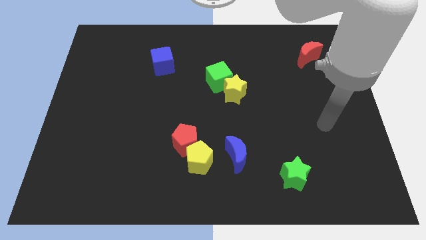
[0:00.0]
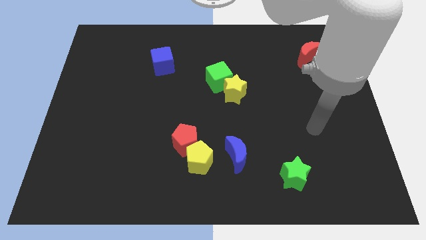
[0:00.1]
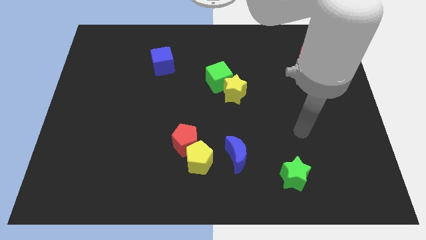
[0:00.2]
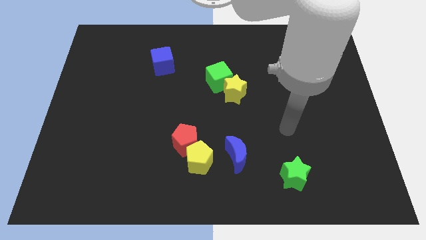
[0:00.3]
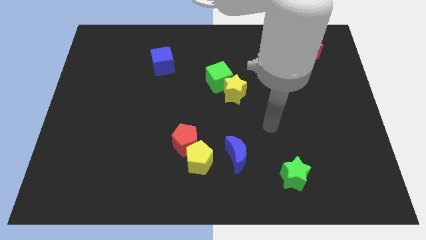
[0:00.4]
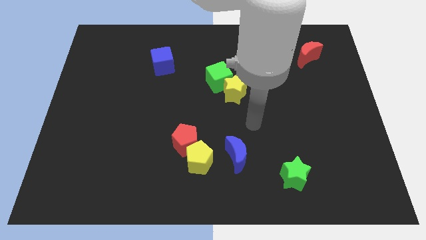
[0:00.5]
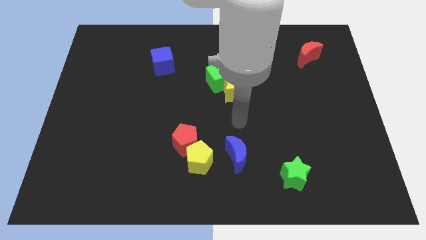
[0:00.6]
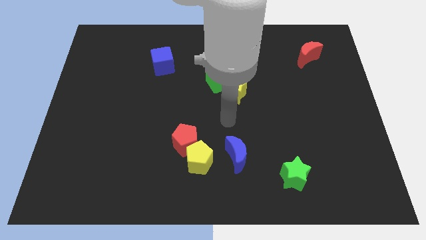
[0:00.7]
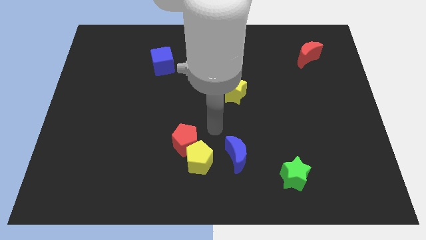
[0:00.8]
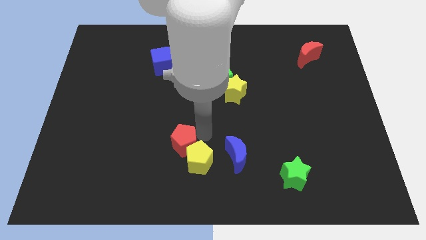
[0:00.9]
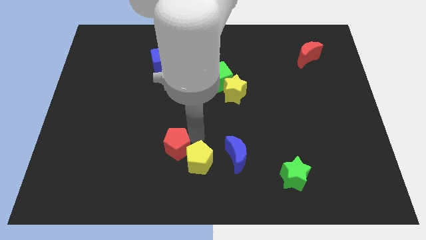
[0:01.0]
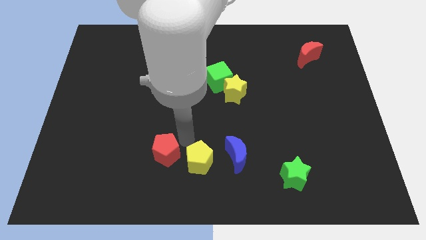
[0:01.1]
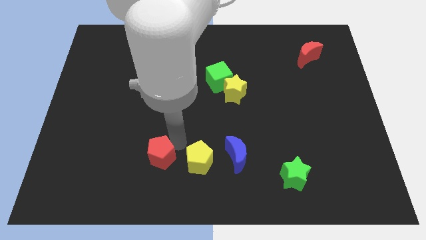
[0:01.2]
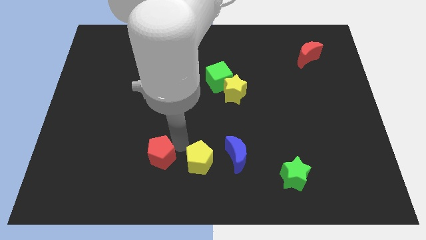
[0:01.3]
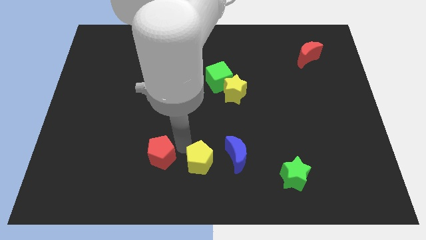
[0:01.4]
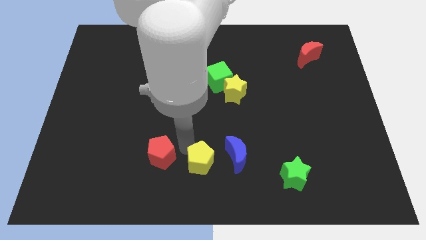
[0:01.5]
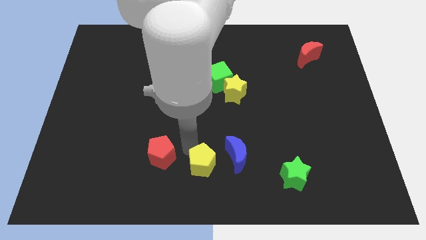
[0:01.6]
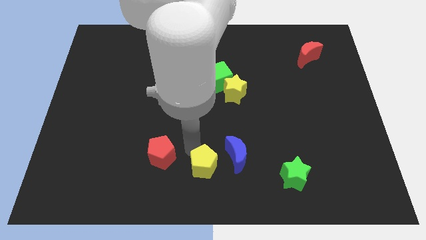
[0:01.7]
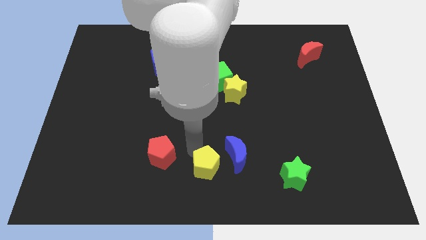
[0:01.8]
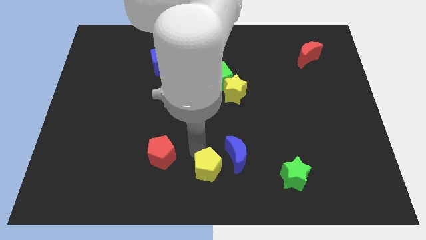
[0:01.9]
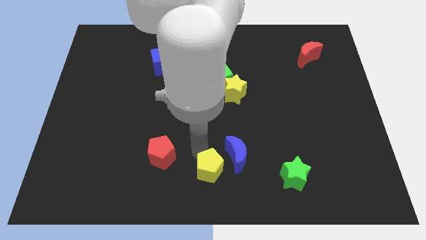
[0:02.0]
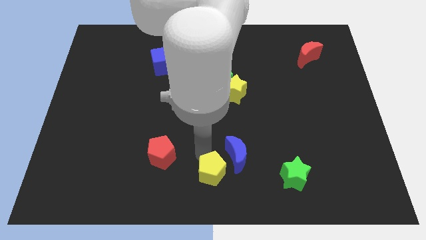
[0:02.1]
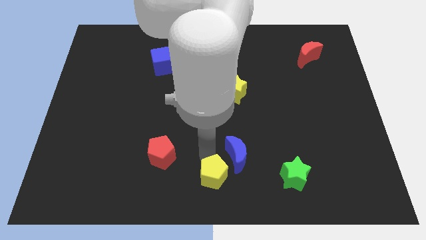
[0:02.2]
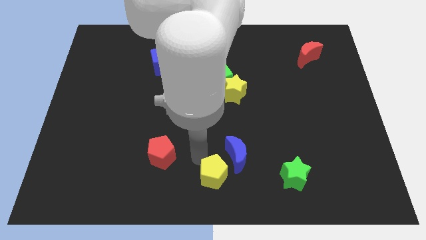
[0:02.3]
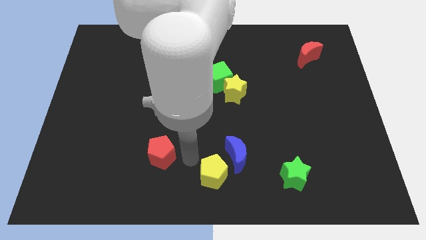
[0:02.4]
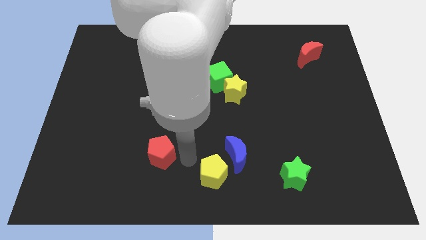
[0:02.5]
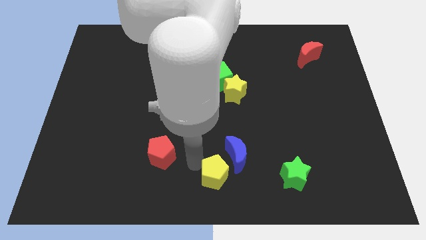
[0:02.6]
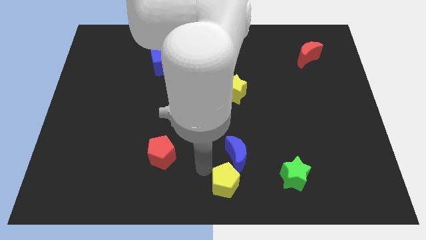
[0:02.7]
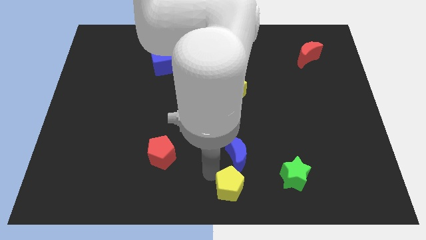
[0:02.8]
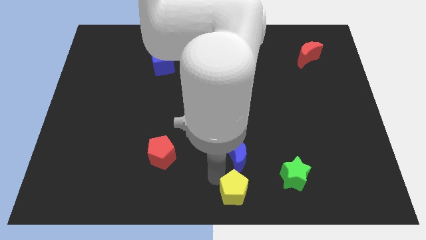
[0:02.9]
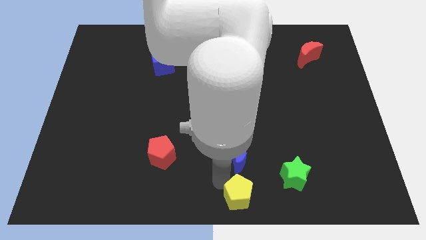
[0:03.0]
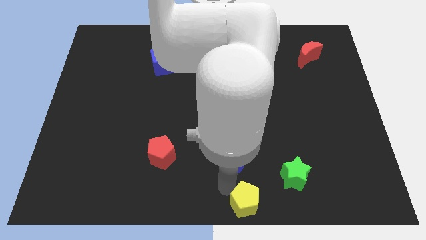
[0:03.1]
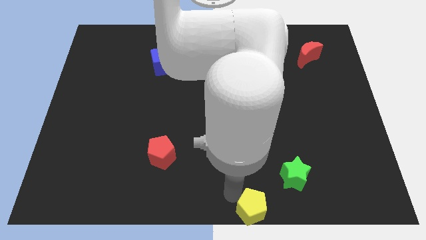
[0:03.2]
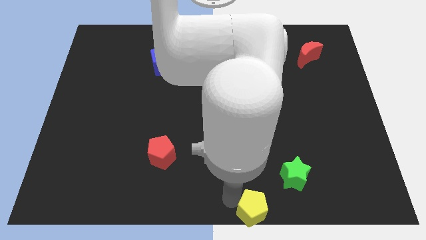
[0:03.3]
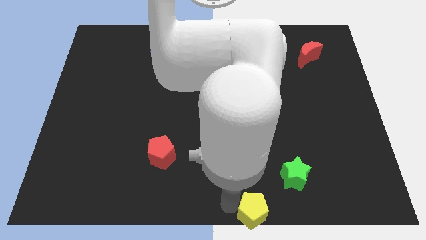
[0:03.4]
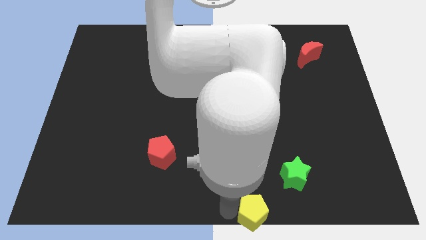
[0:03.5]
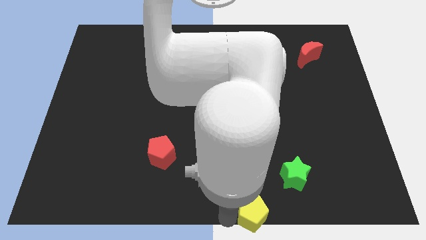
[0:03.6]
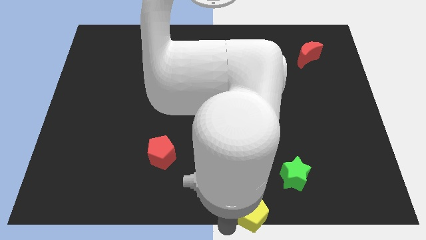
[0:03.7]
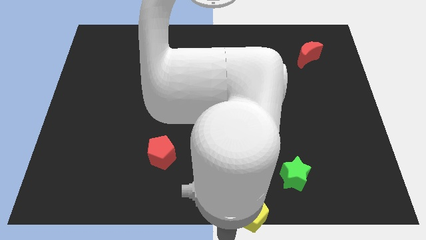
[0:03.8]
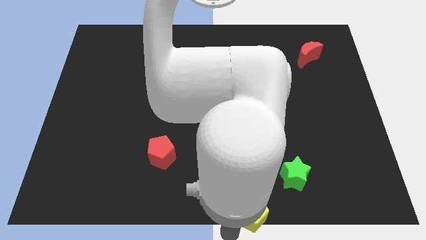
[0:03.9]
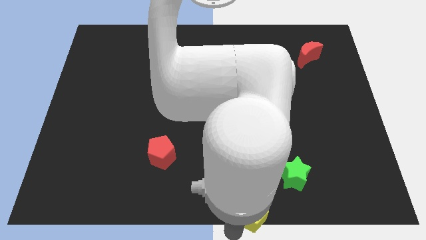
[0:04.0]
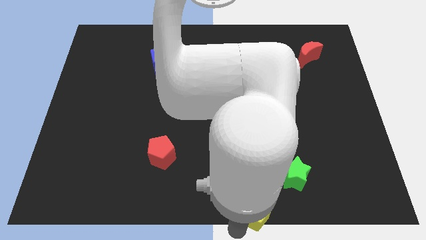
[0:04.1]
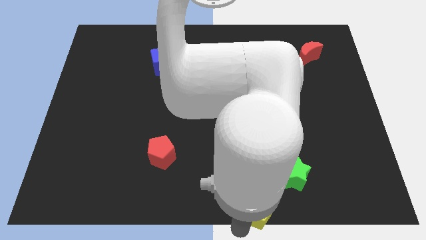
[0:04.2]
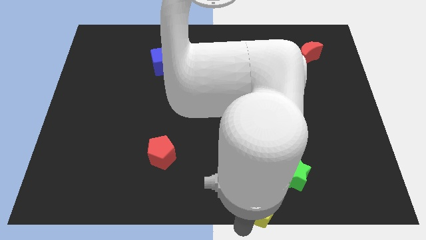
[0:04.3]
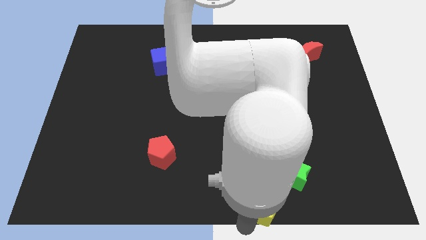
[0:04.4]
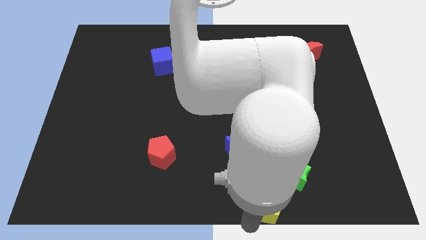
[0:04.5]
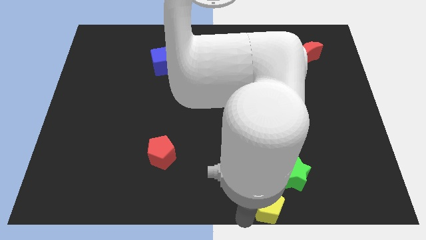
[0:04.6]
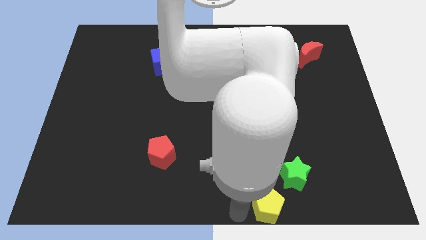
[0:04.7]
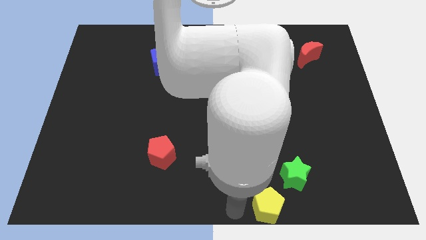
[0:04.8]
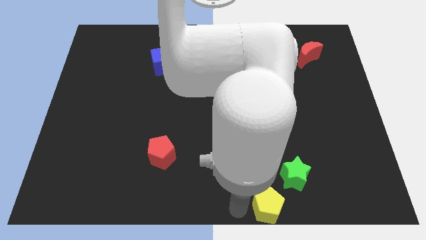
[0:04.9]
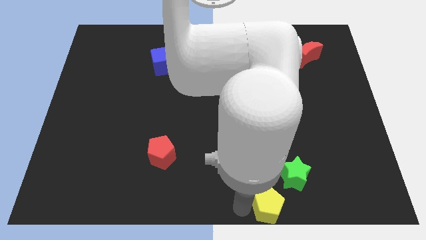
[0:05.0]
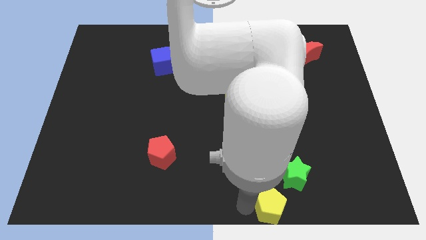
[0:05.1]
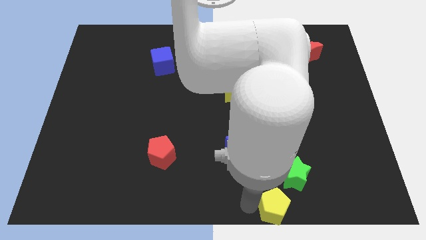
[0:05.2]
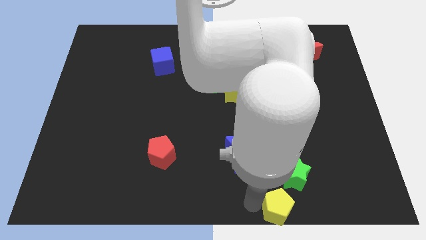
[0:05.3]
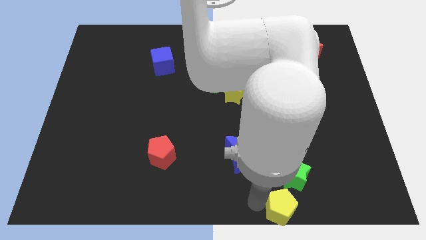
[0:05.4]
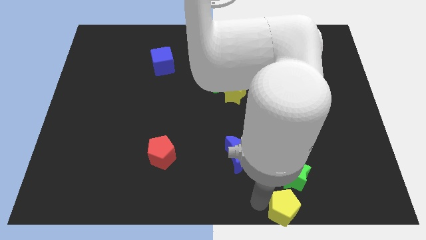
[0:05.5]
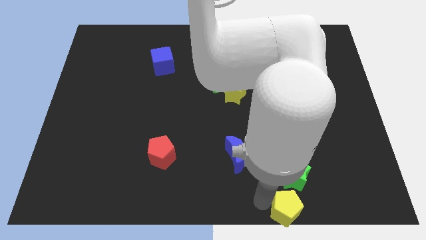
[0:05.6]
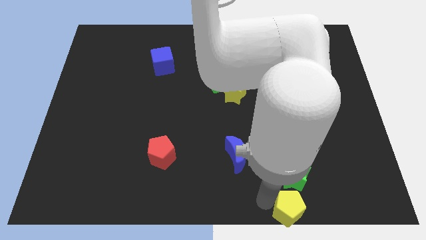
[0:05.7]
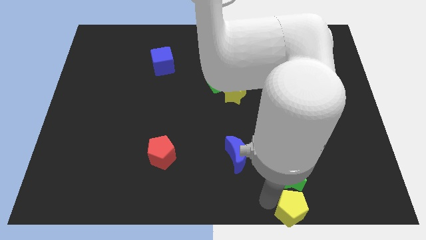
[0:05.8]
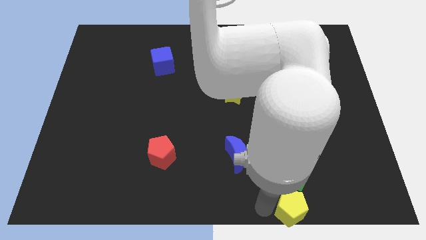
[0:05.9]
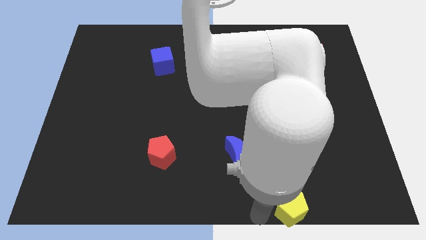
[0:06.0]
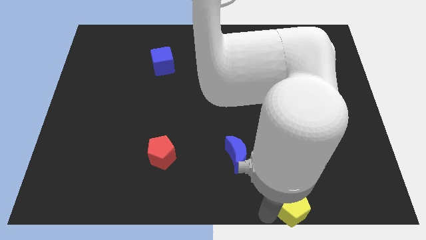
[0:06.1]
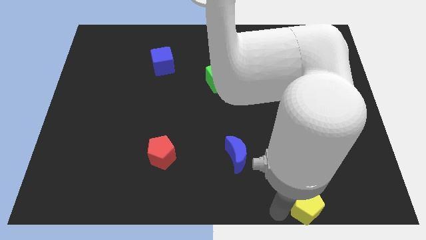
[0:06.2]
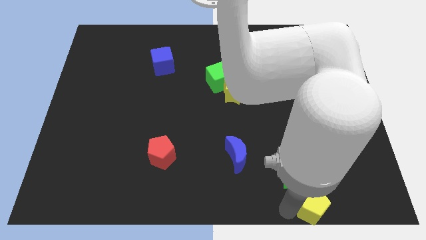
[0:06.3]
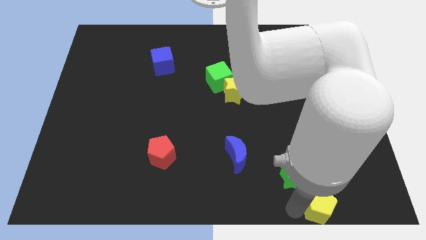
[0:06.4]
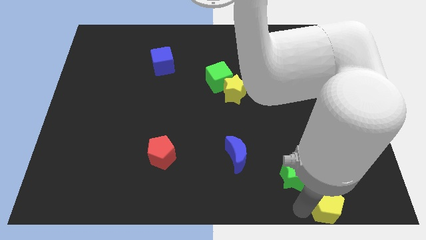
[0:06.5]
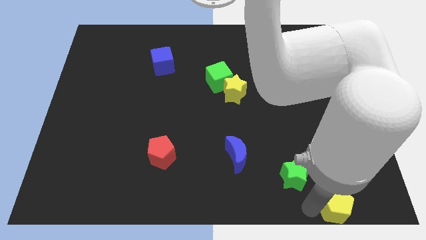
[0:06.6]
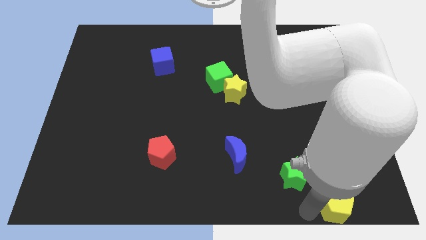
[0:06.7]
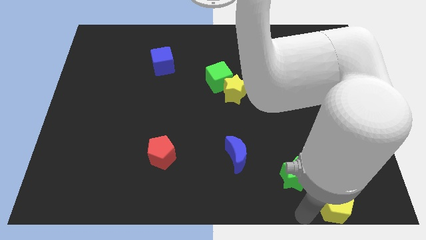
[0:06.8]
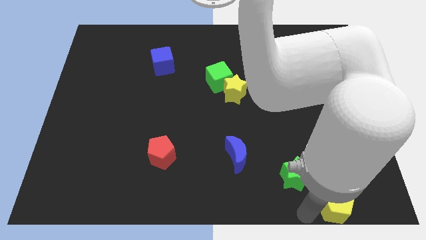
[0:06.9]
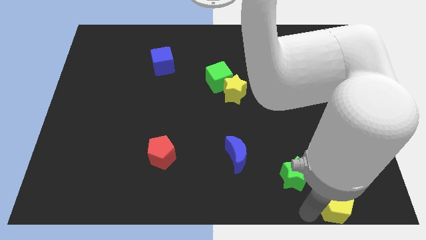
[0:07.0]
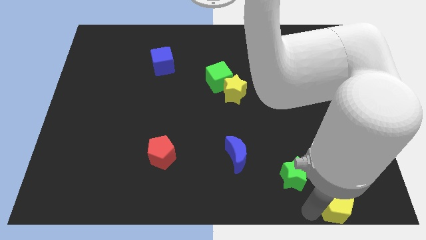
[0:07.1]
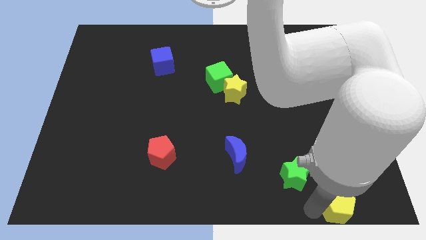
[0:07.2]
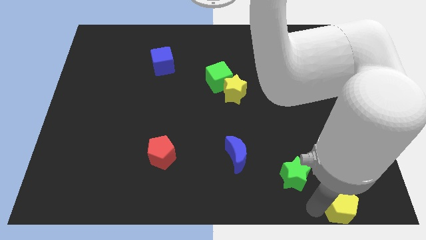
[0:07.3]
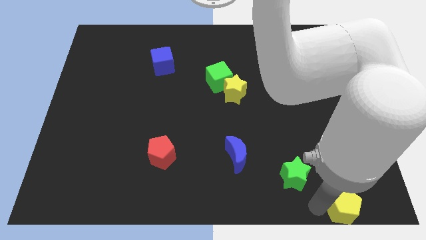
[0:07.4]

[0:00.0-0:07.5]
move the yellow pentagon to the bottom right corner
